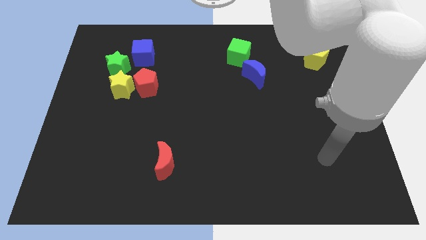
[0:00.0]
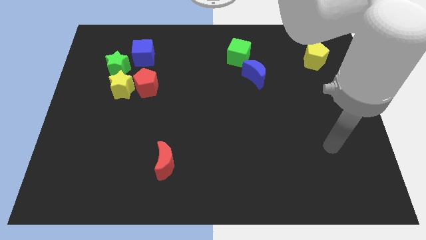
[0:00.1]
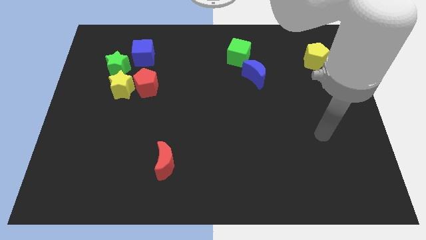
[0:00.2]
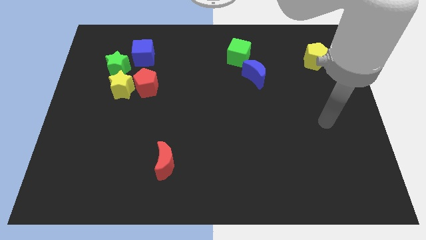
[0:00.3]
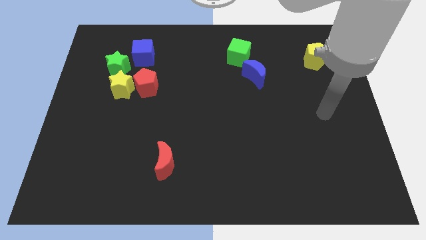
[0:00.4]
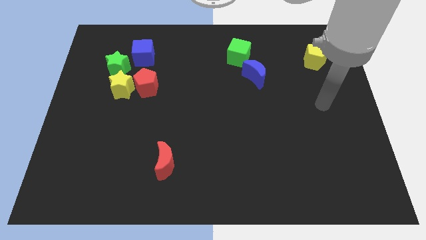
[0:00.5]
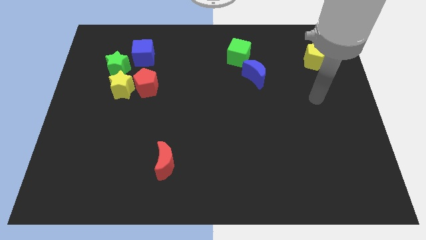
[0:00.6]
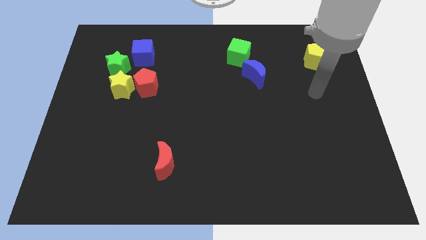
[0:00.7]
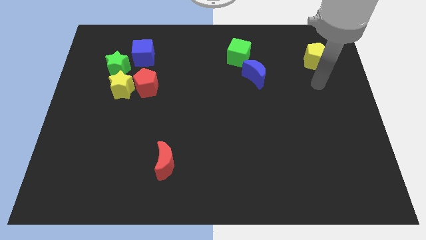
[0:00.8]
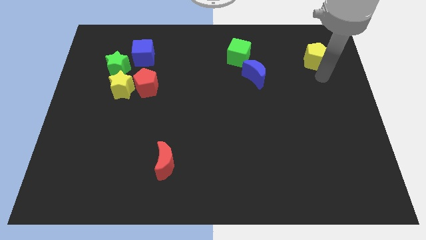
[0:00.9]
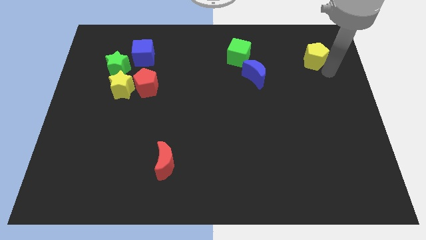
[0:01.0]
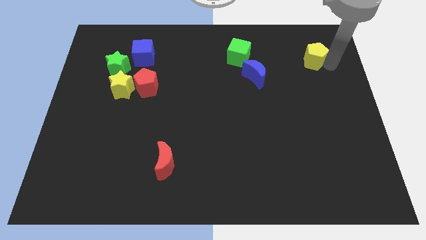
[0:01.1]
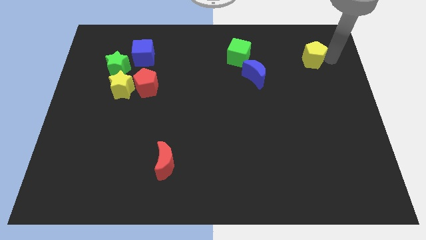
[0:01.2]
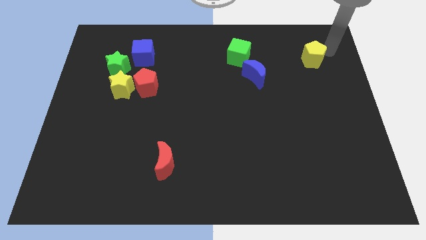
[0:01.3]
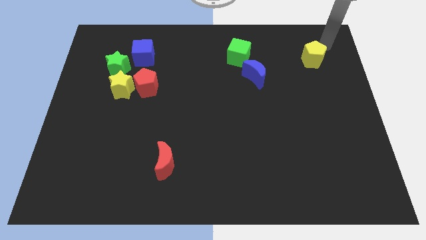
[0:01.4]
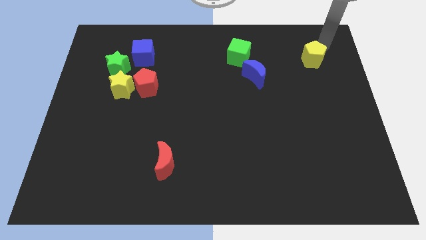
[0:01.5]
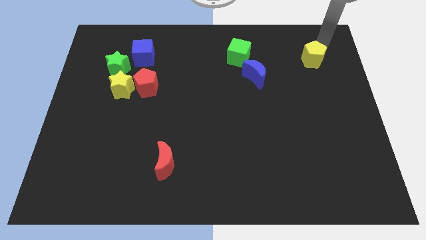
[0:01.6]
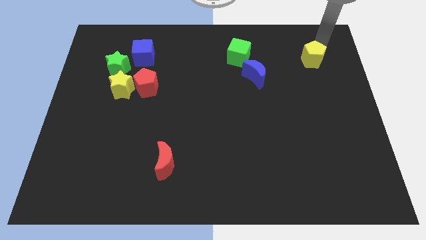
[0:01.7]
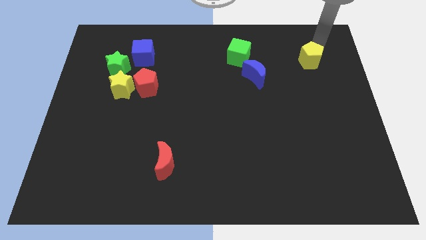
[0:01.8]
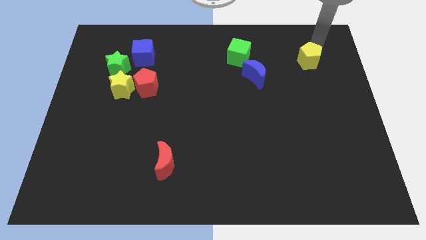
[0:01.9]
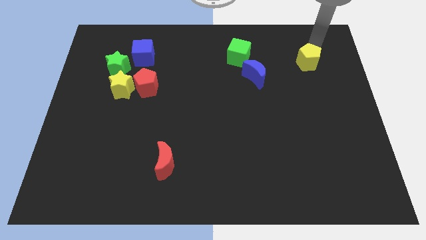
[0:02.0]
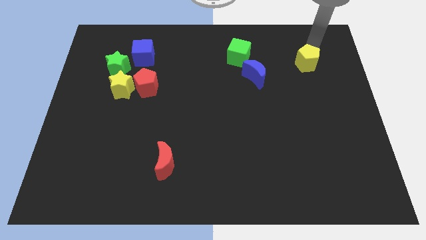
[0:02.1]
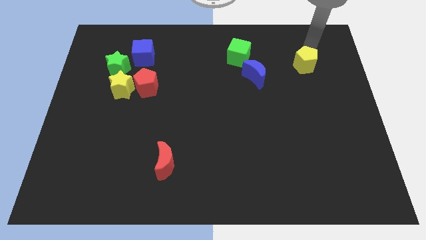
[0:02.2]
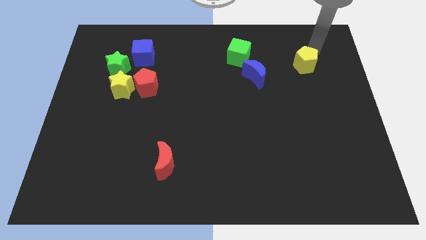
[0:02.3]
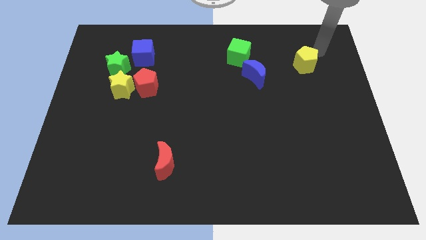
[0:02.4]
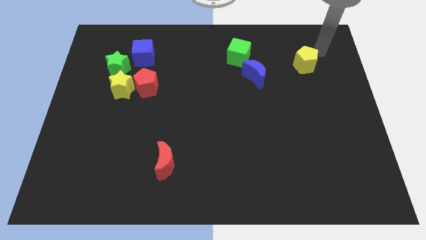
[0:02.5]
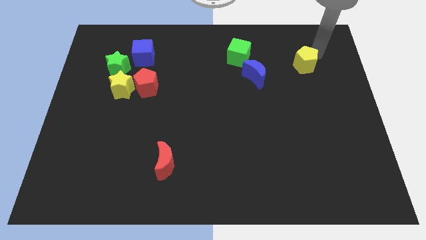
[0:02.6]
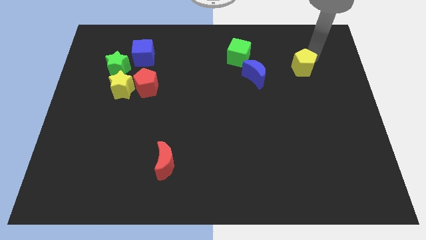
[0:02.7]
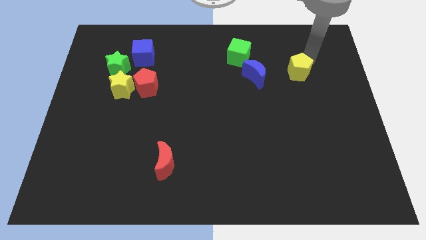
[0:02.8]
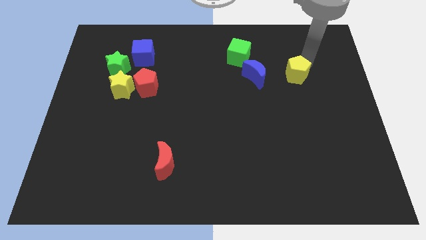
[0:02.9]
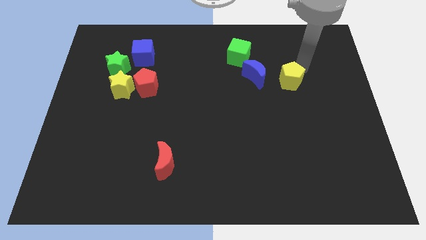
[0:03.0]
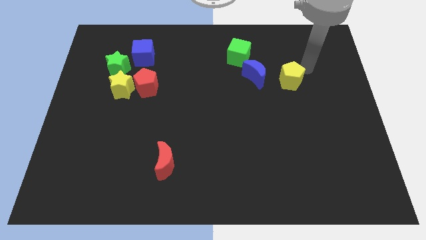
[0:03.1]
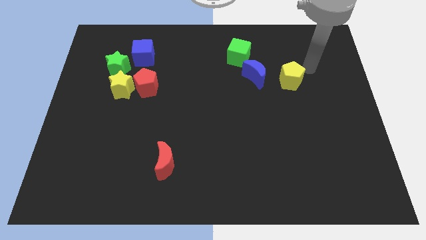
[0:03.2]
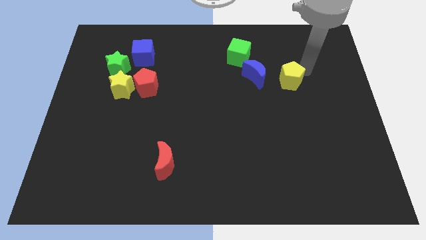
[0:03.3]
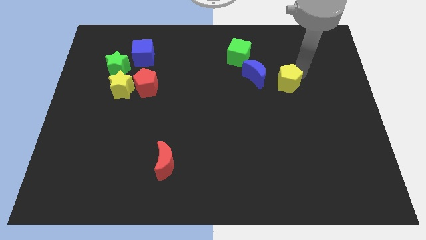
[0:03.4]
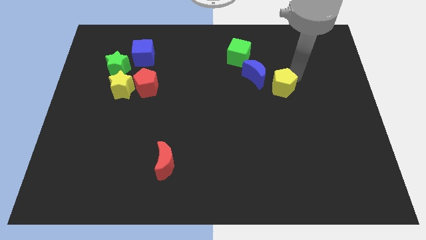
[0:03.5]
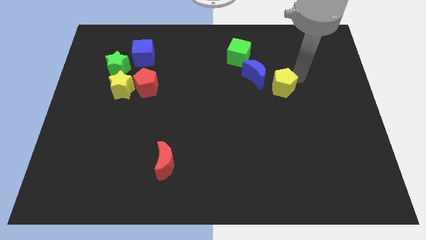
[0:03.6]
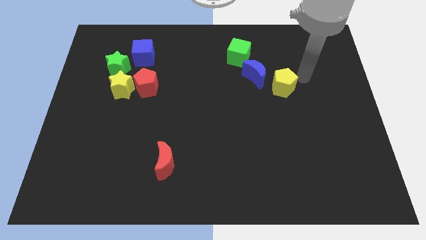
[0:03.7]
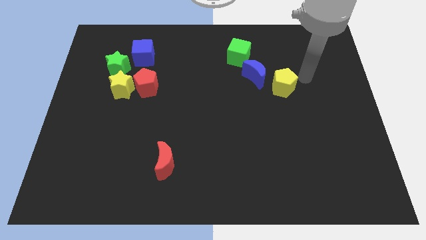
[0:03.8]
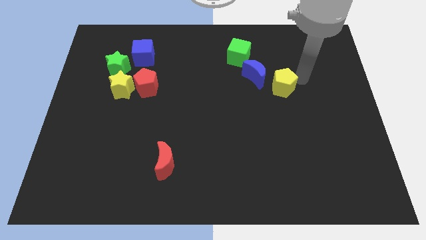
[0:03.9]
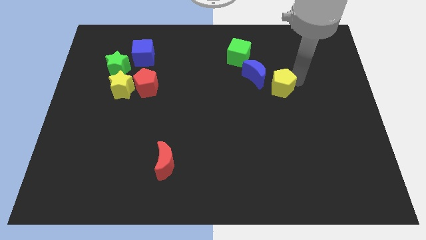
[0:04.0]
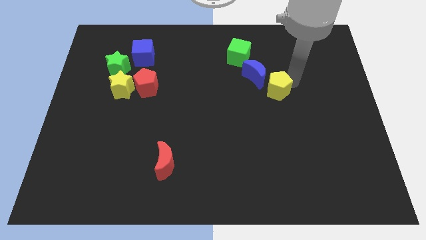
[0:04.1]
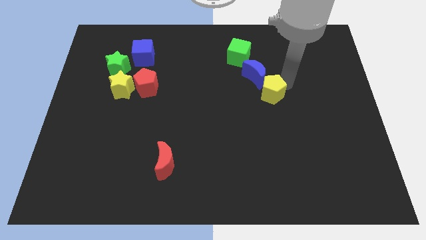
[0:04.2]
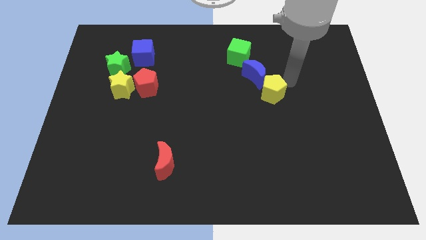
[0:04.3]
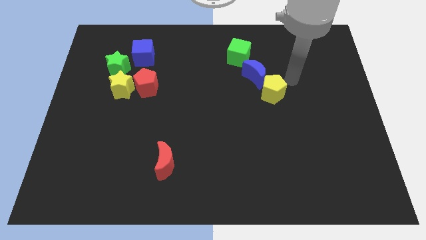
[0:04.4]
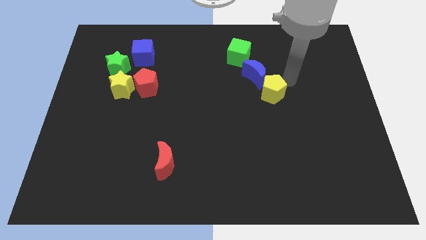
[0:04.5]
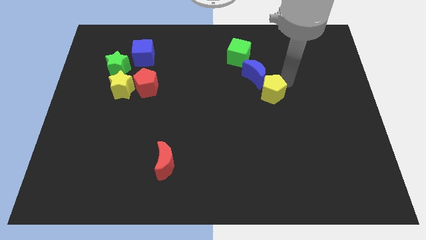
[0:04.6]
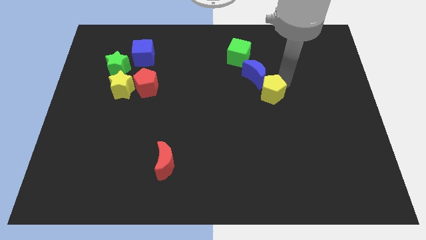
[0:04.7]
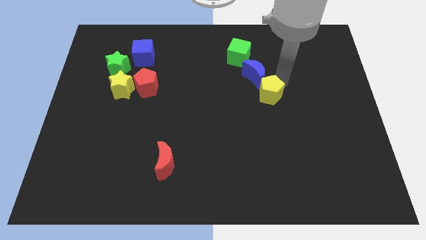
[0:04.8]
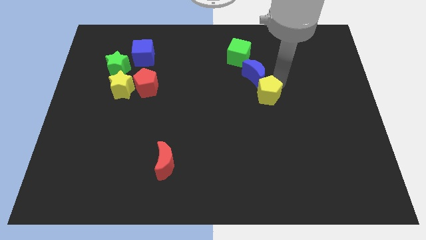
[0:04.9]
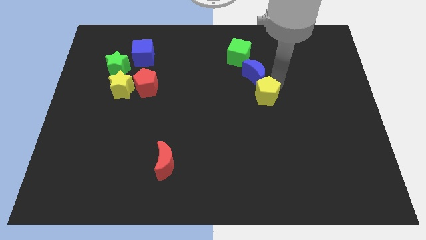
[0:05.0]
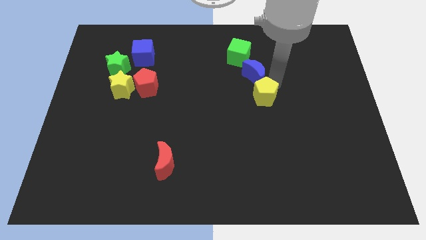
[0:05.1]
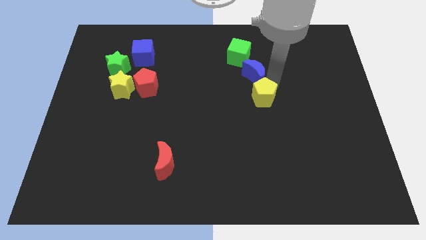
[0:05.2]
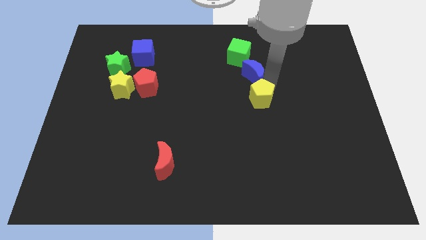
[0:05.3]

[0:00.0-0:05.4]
move the yellow pentagon down and then left

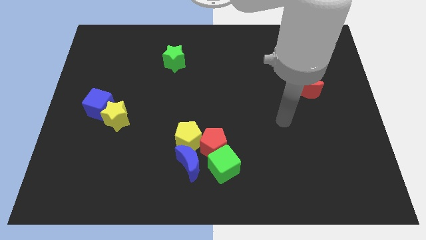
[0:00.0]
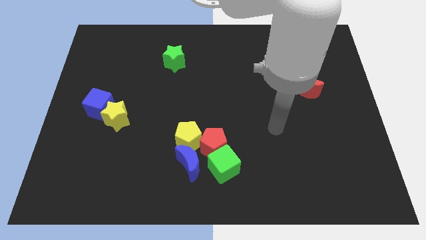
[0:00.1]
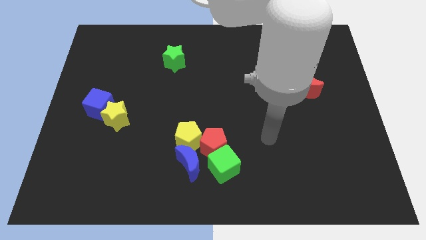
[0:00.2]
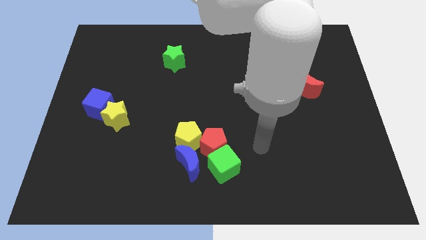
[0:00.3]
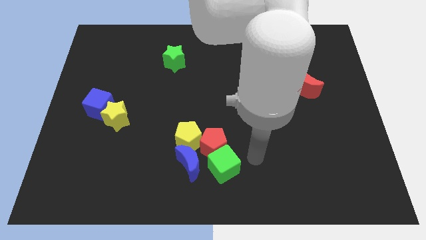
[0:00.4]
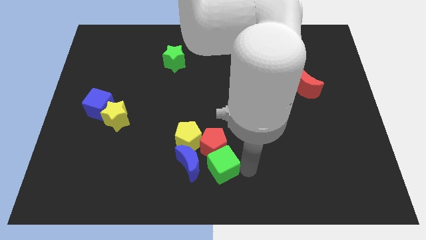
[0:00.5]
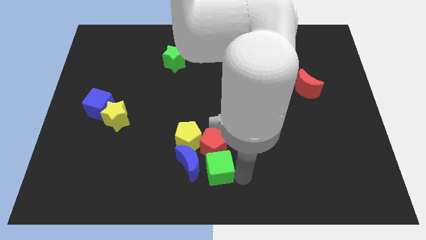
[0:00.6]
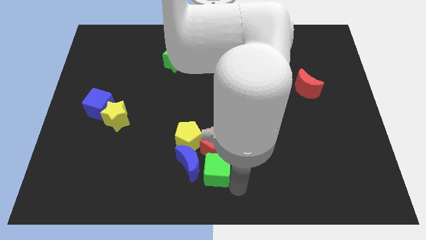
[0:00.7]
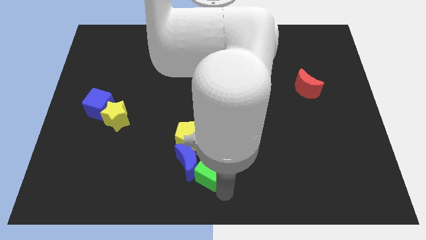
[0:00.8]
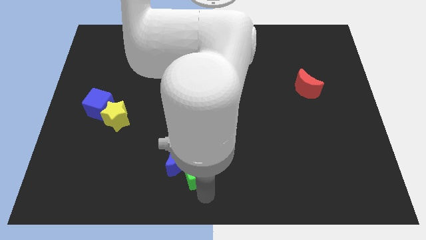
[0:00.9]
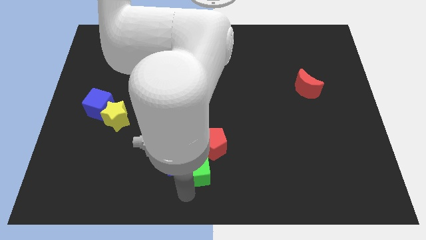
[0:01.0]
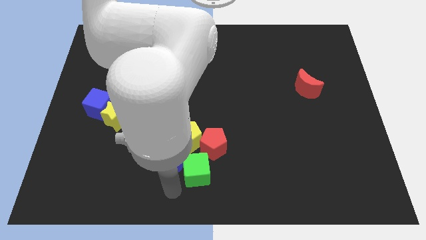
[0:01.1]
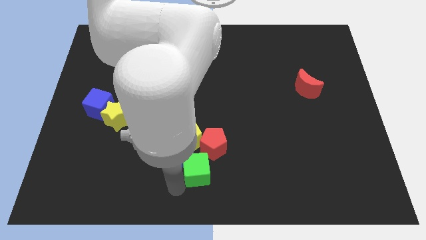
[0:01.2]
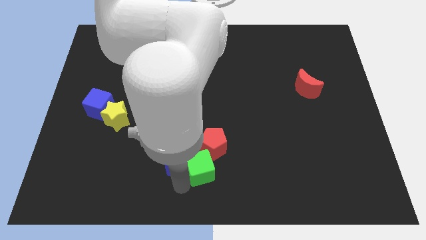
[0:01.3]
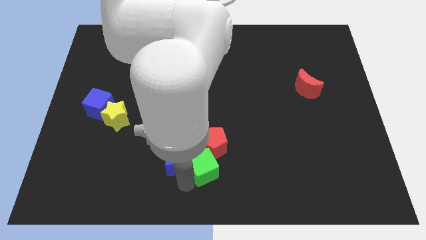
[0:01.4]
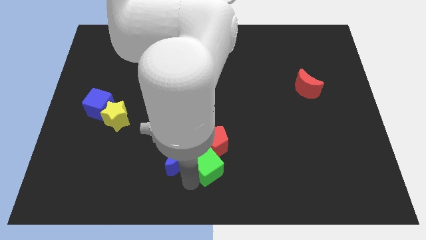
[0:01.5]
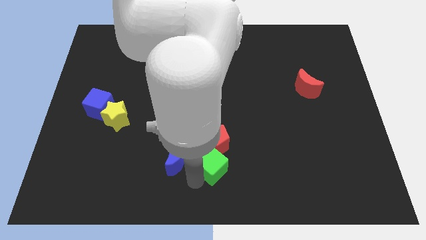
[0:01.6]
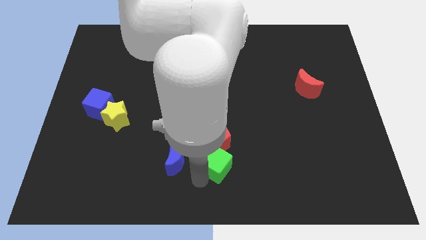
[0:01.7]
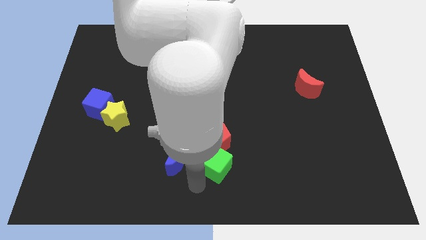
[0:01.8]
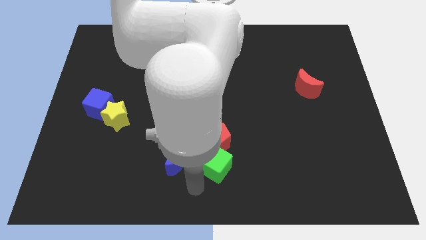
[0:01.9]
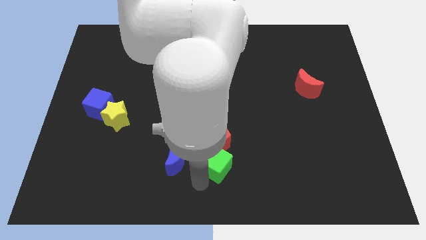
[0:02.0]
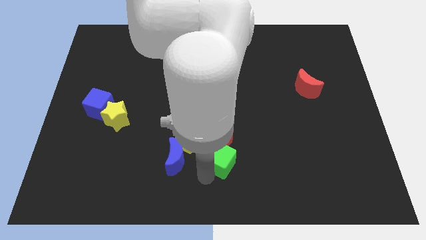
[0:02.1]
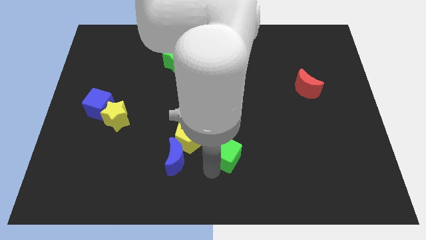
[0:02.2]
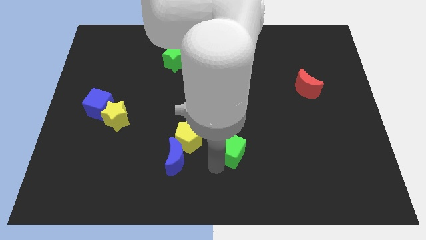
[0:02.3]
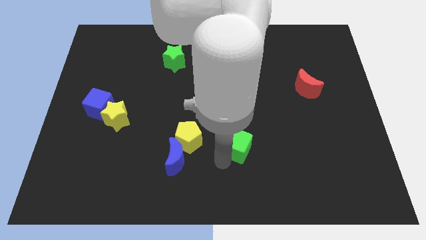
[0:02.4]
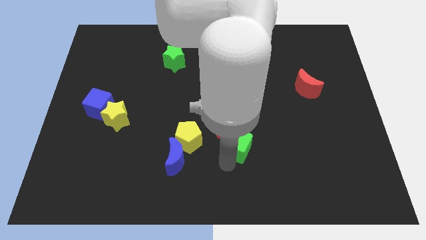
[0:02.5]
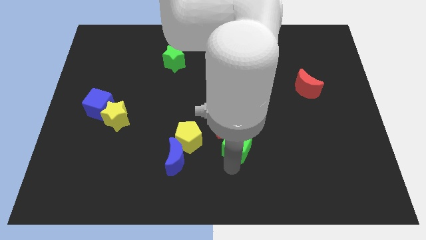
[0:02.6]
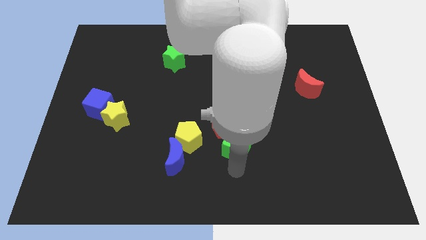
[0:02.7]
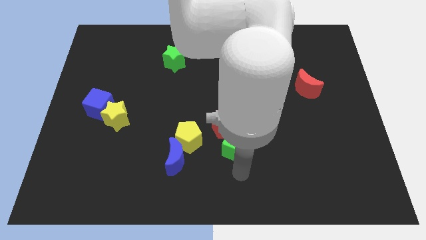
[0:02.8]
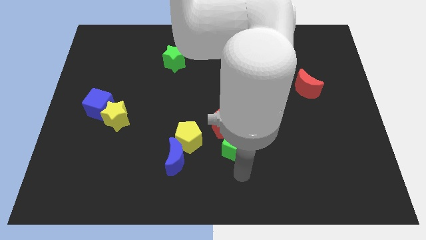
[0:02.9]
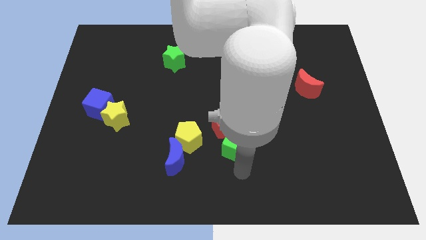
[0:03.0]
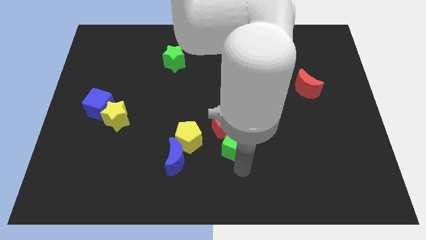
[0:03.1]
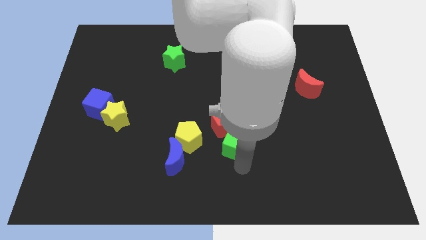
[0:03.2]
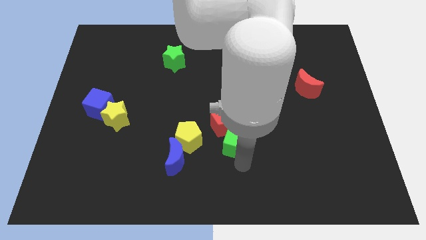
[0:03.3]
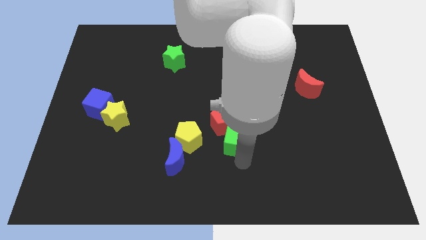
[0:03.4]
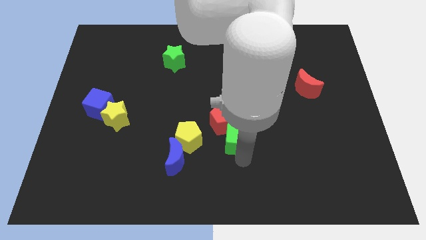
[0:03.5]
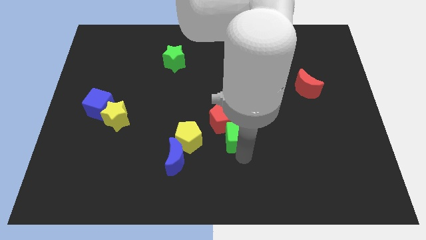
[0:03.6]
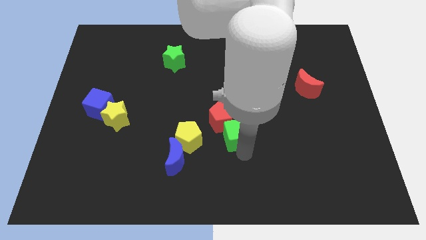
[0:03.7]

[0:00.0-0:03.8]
push the green cube somewhat upwards
